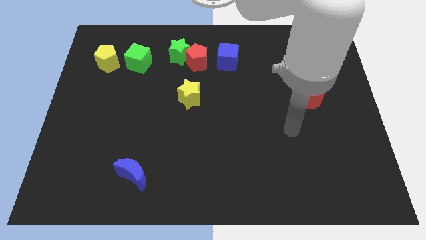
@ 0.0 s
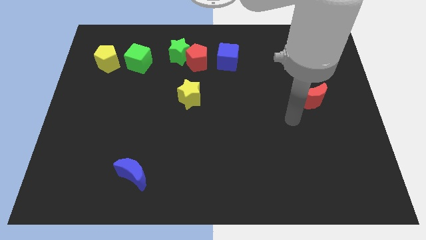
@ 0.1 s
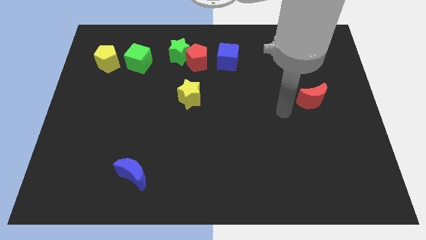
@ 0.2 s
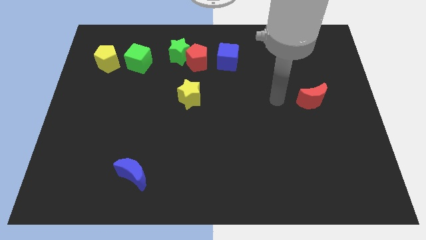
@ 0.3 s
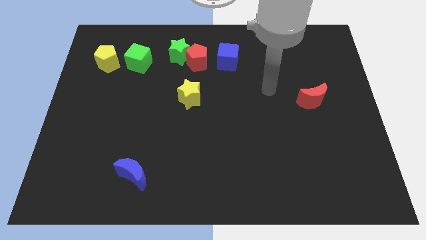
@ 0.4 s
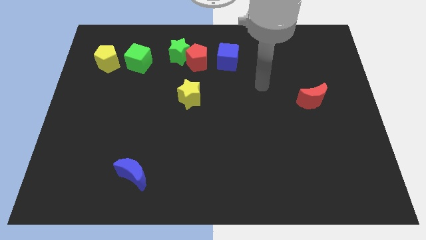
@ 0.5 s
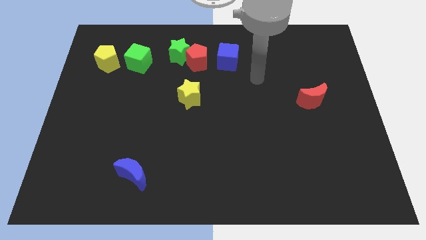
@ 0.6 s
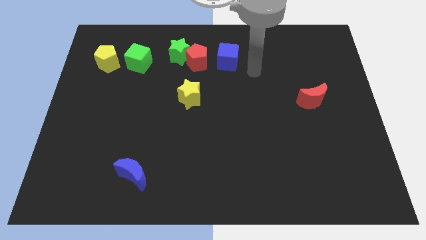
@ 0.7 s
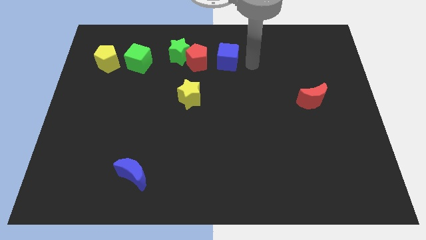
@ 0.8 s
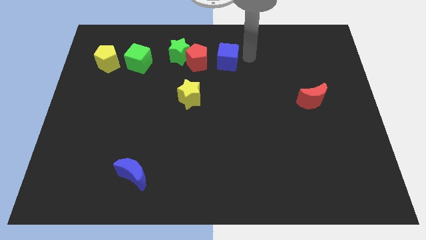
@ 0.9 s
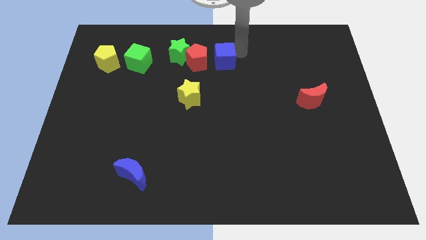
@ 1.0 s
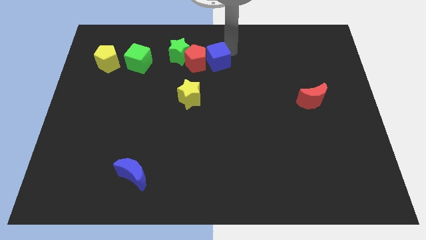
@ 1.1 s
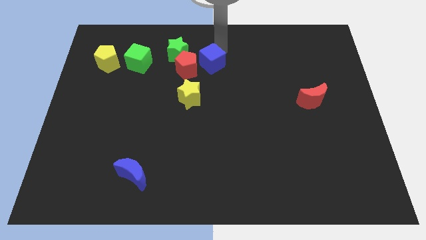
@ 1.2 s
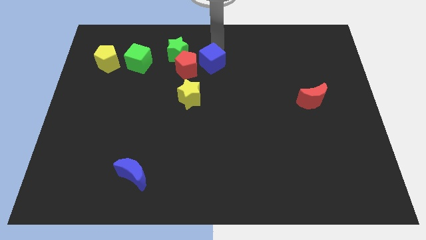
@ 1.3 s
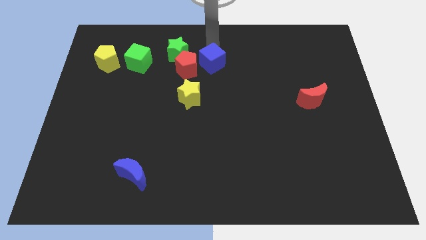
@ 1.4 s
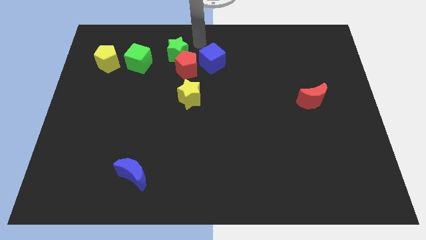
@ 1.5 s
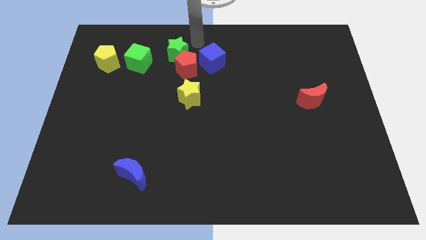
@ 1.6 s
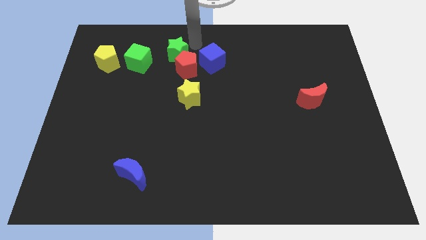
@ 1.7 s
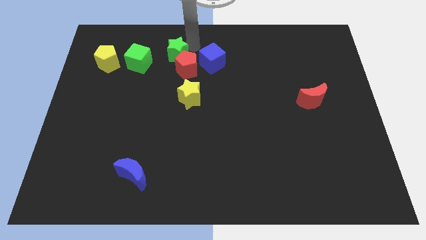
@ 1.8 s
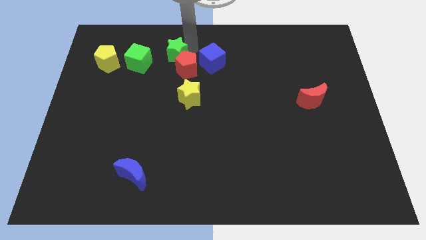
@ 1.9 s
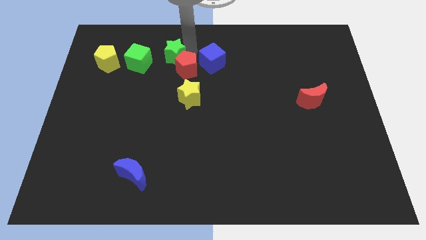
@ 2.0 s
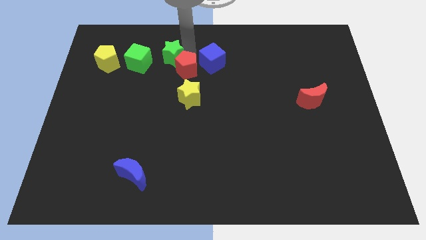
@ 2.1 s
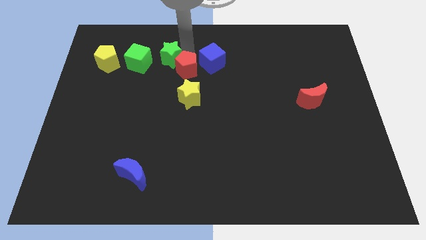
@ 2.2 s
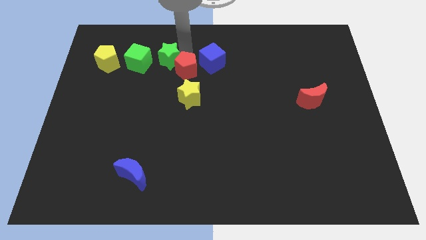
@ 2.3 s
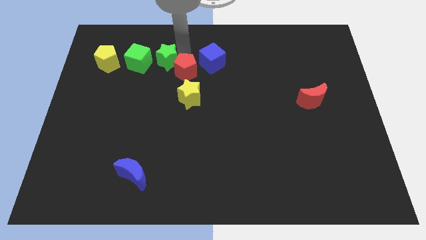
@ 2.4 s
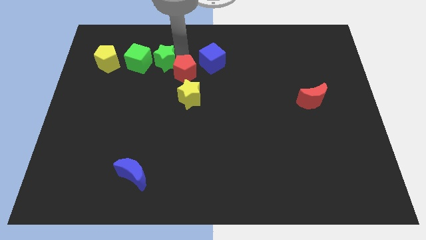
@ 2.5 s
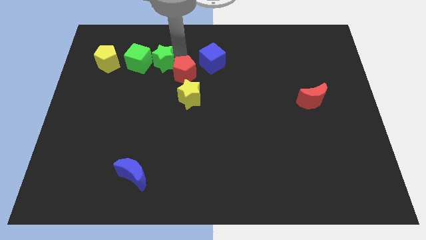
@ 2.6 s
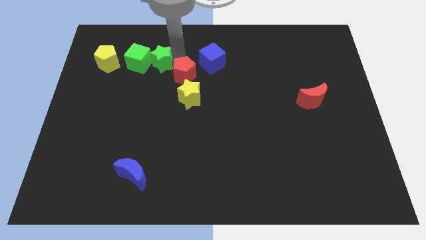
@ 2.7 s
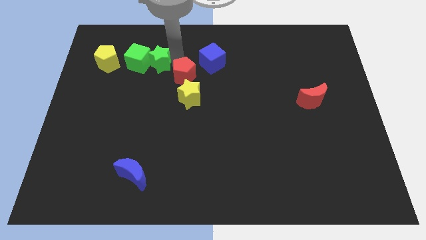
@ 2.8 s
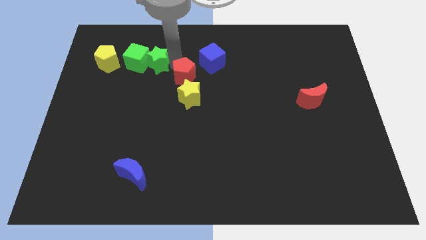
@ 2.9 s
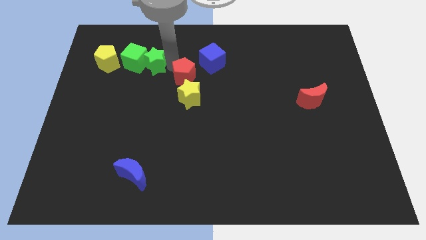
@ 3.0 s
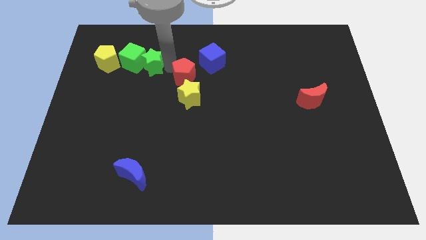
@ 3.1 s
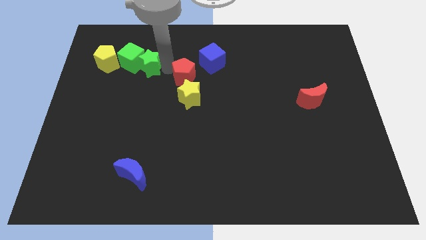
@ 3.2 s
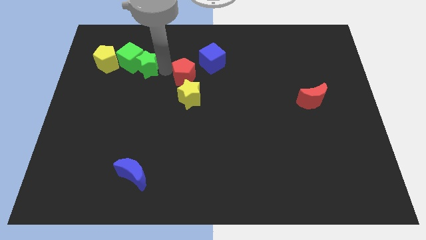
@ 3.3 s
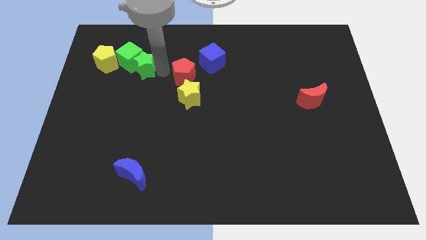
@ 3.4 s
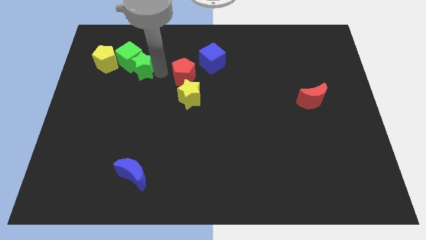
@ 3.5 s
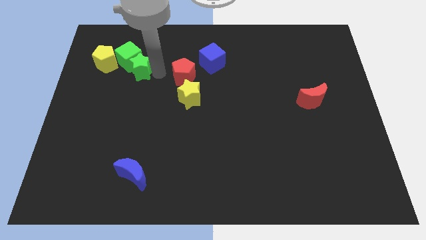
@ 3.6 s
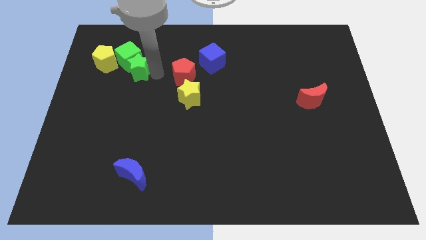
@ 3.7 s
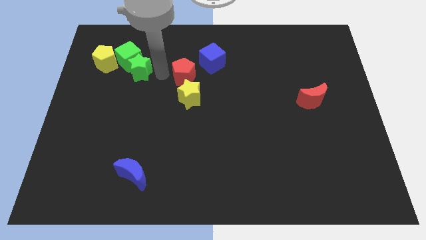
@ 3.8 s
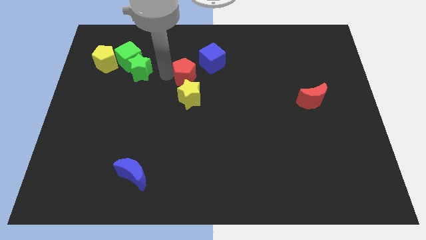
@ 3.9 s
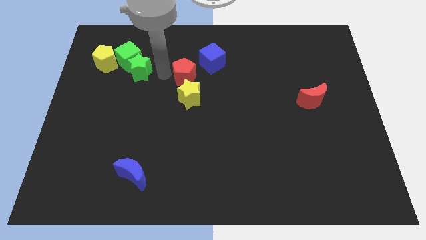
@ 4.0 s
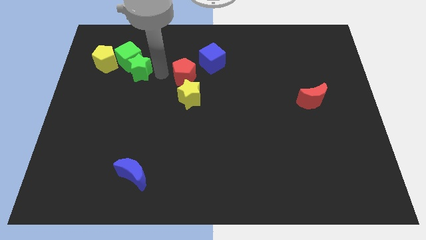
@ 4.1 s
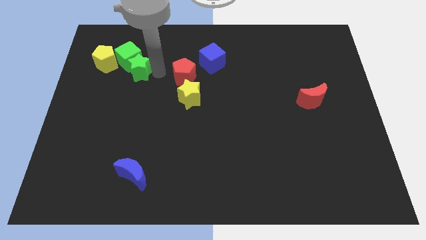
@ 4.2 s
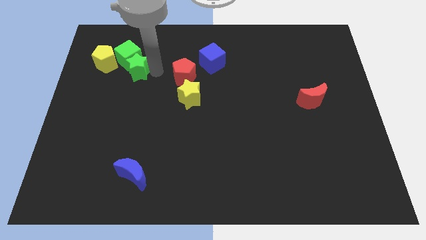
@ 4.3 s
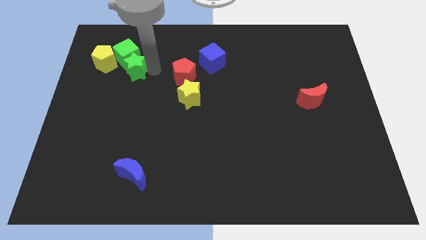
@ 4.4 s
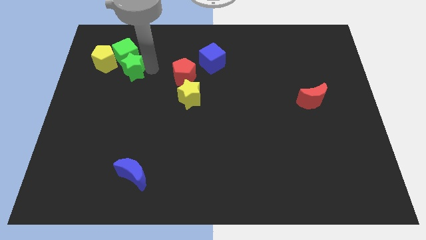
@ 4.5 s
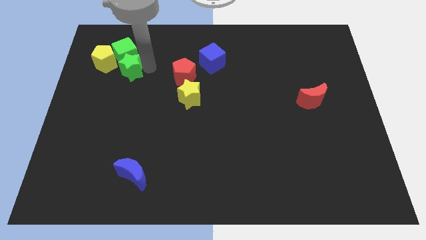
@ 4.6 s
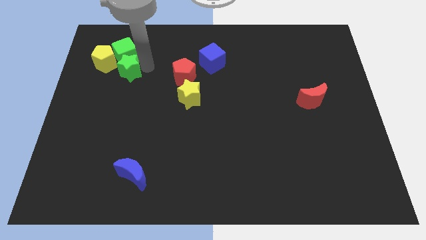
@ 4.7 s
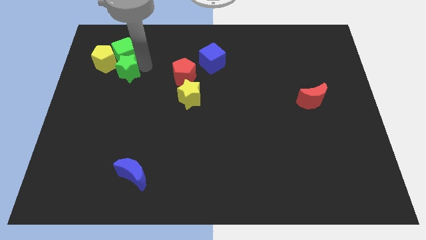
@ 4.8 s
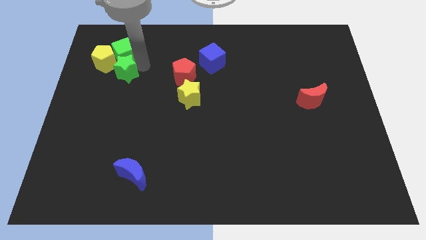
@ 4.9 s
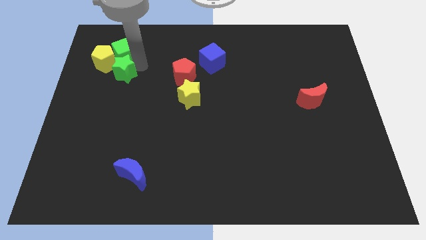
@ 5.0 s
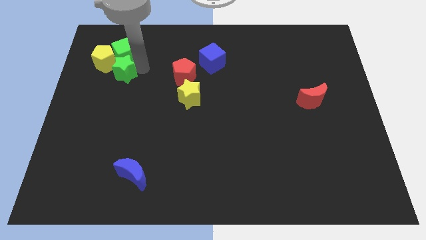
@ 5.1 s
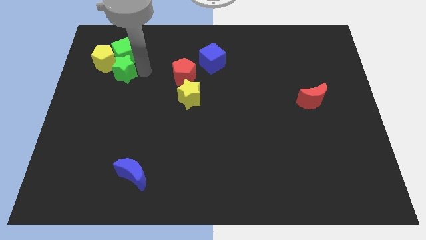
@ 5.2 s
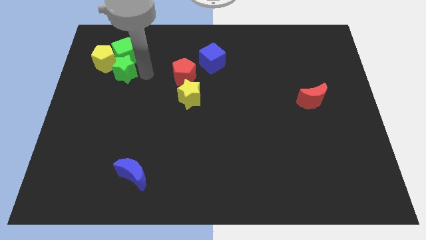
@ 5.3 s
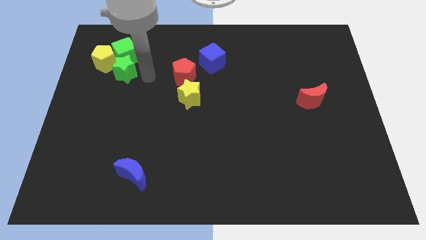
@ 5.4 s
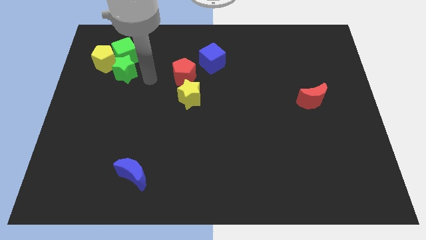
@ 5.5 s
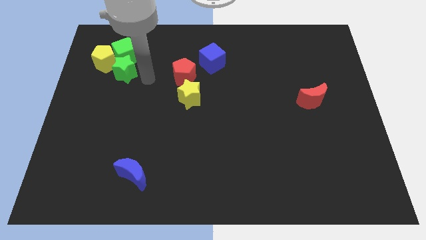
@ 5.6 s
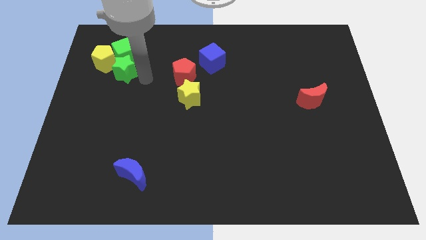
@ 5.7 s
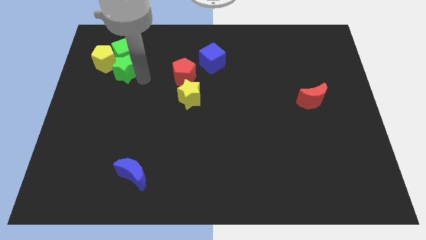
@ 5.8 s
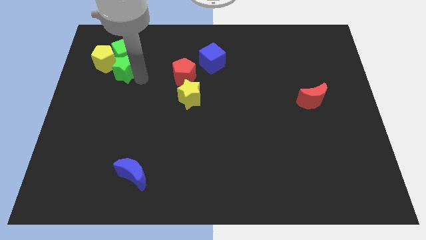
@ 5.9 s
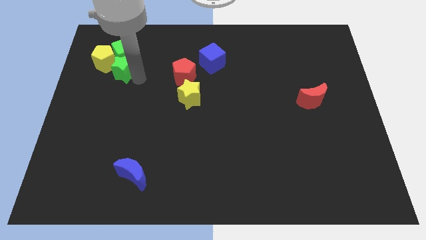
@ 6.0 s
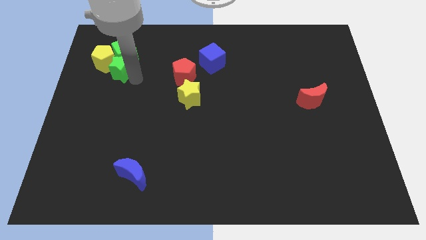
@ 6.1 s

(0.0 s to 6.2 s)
put the green star towards the yellow pentagon

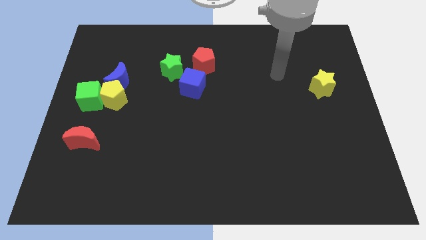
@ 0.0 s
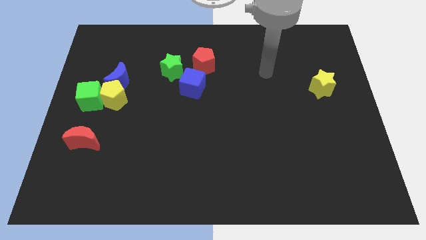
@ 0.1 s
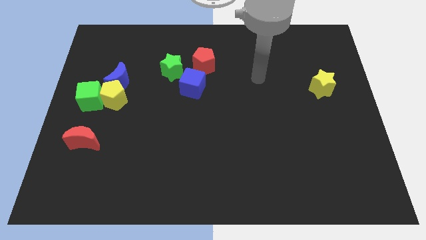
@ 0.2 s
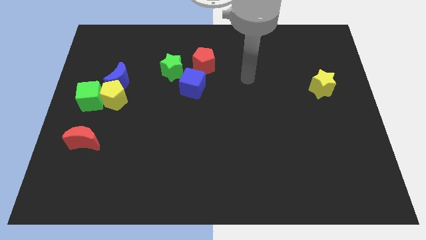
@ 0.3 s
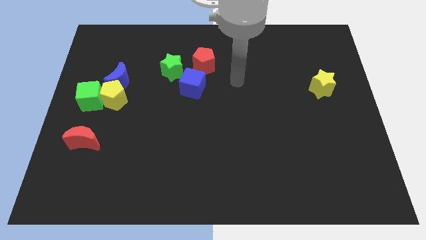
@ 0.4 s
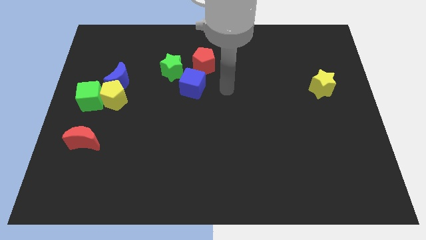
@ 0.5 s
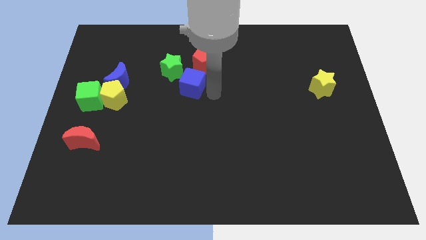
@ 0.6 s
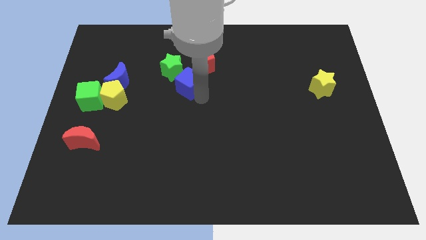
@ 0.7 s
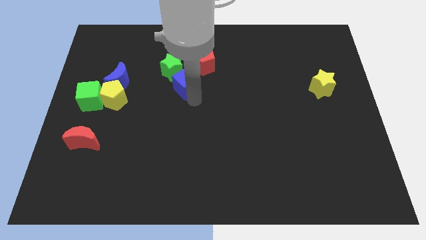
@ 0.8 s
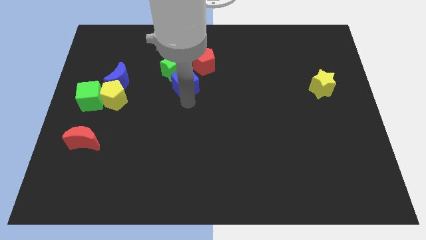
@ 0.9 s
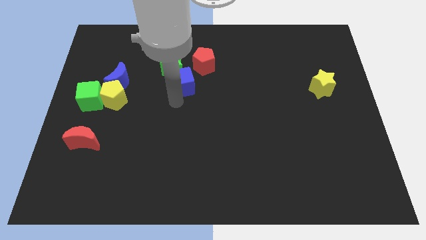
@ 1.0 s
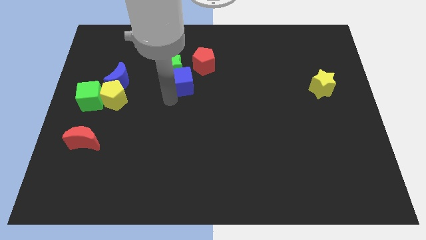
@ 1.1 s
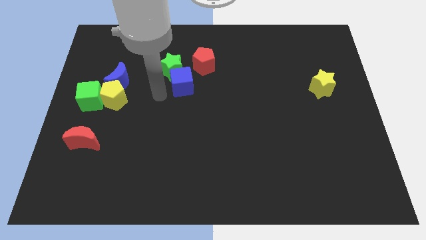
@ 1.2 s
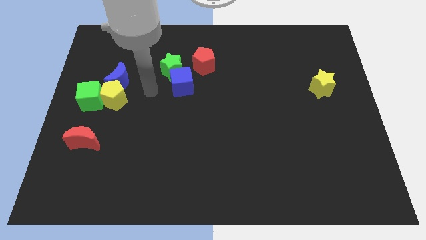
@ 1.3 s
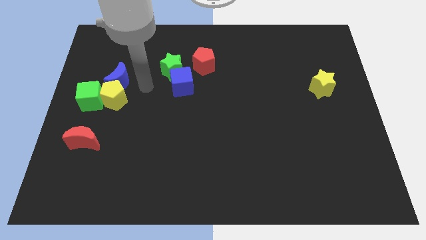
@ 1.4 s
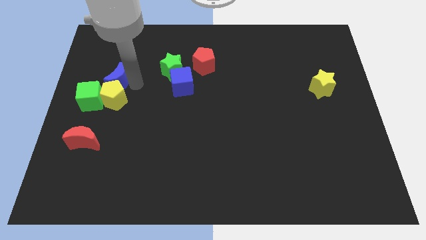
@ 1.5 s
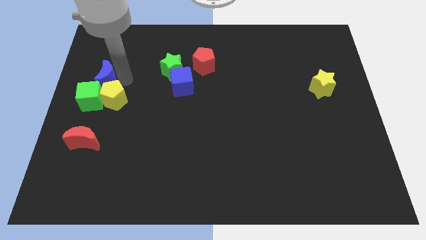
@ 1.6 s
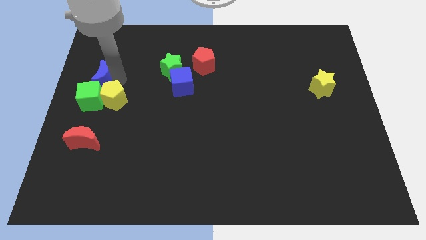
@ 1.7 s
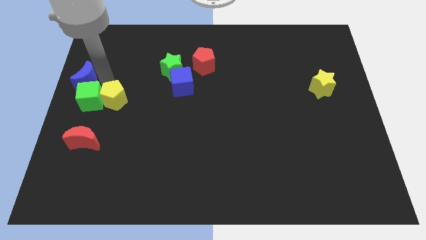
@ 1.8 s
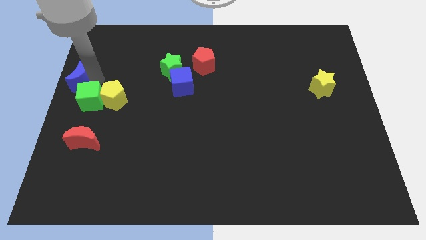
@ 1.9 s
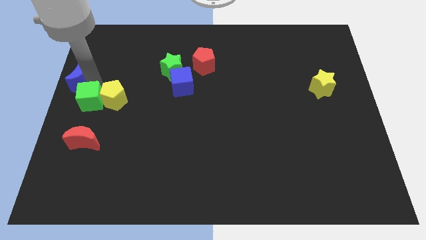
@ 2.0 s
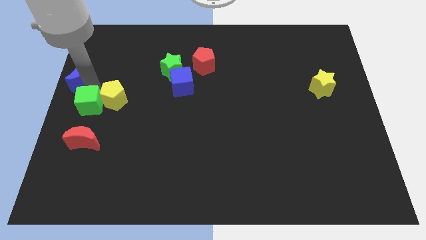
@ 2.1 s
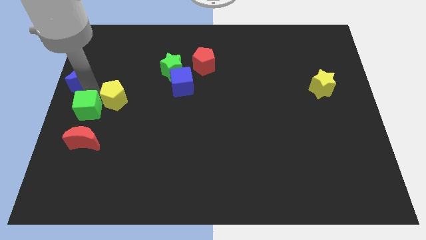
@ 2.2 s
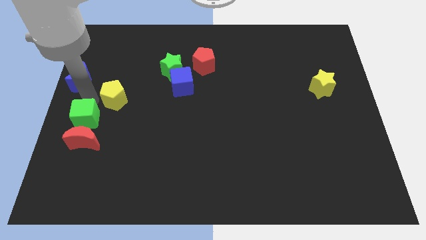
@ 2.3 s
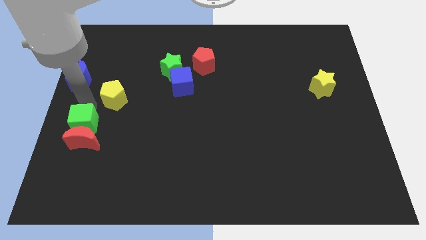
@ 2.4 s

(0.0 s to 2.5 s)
put the green cube to the red moon
